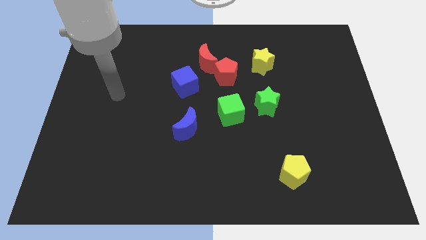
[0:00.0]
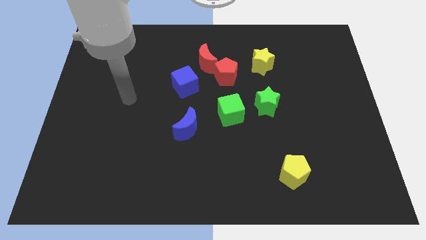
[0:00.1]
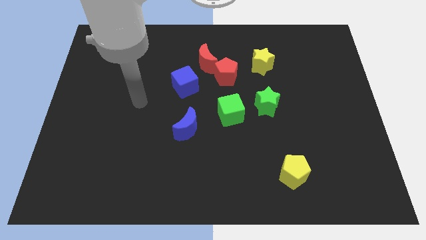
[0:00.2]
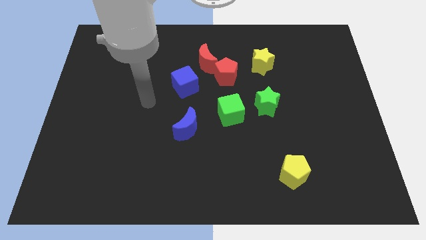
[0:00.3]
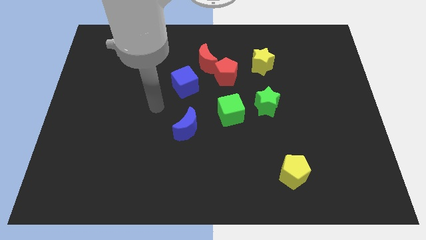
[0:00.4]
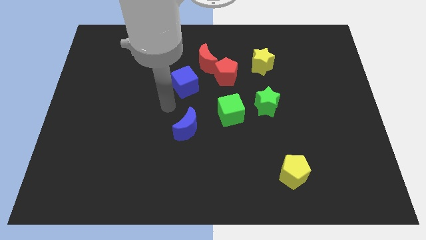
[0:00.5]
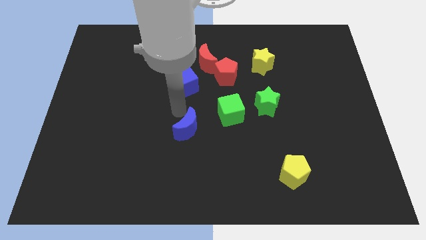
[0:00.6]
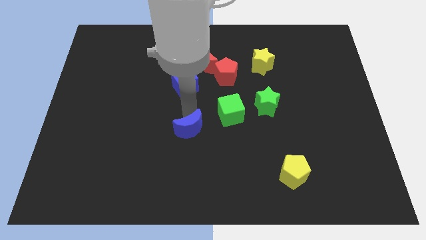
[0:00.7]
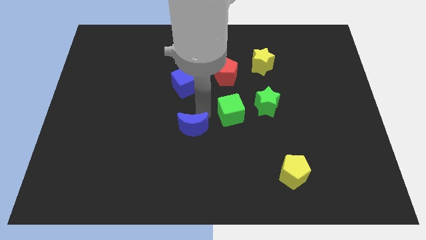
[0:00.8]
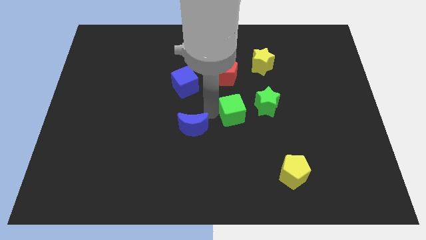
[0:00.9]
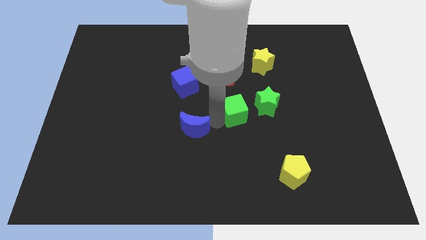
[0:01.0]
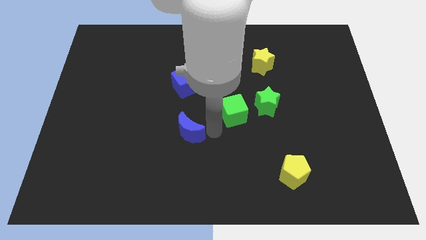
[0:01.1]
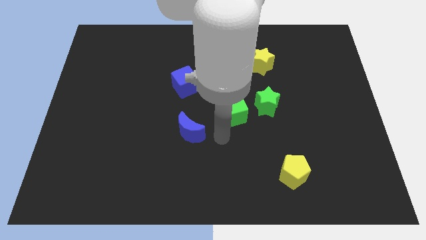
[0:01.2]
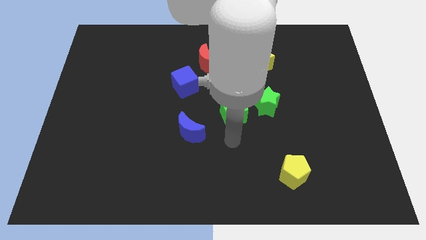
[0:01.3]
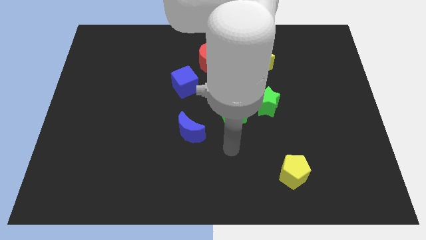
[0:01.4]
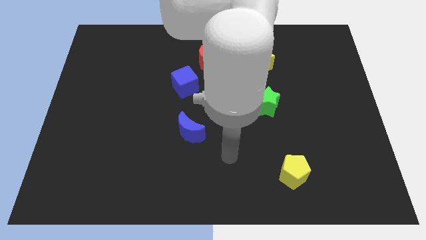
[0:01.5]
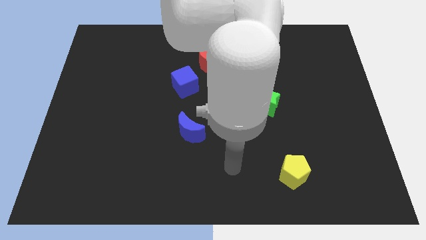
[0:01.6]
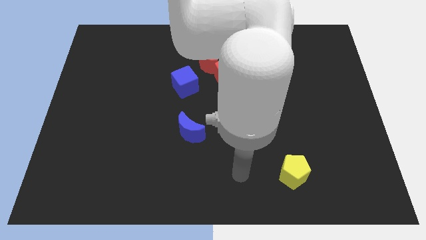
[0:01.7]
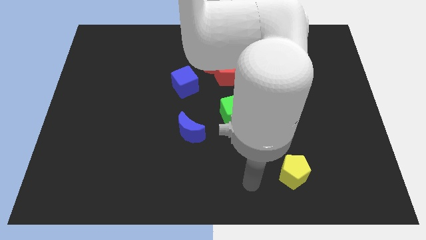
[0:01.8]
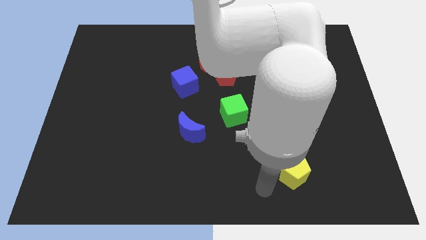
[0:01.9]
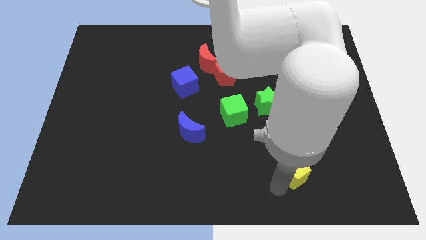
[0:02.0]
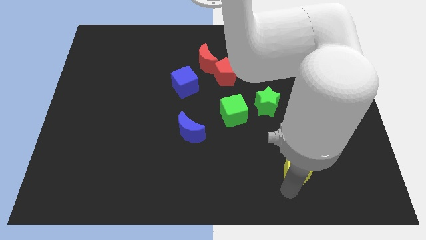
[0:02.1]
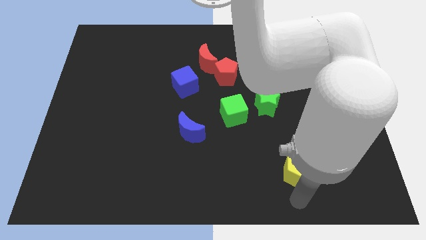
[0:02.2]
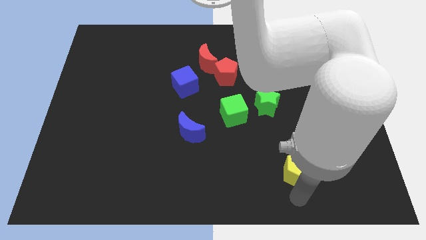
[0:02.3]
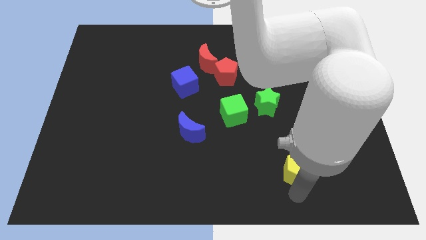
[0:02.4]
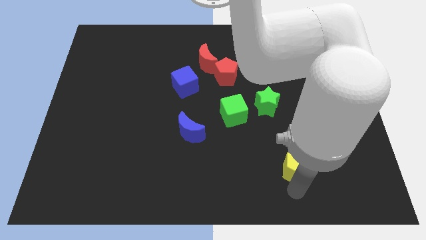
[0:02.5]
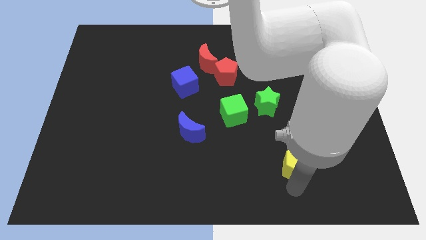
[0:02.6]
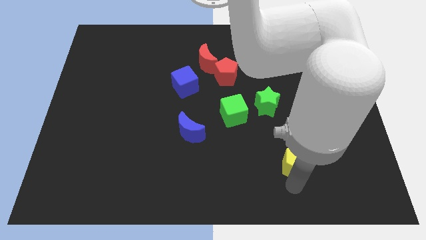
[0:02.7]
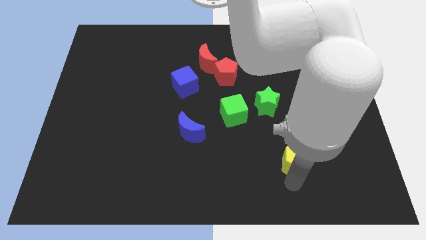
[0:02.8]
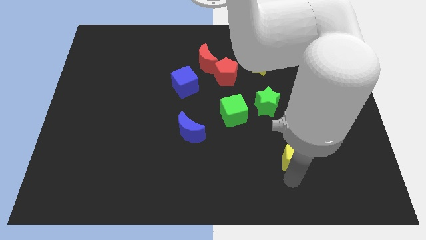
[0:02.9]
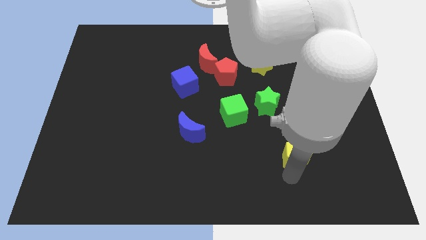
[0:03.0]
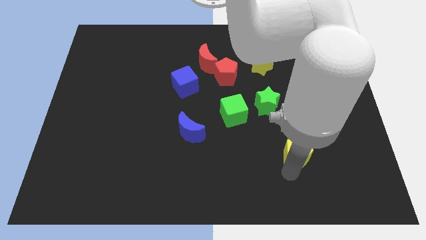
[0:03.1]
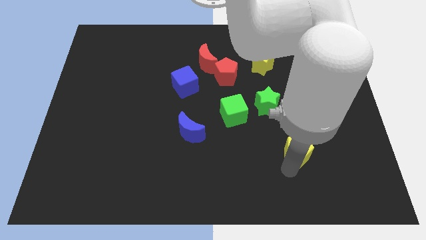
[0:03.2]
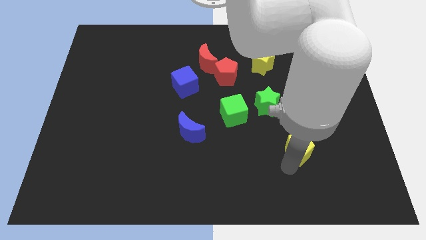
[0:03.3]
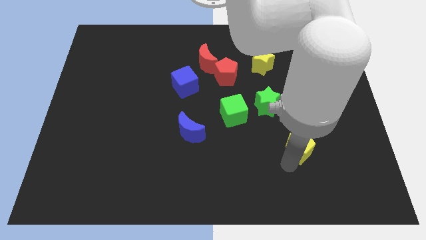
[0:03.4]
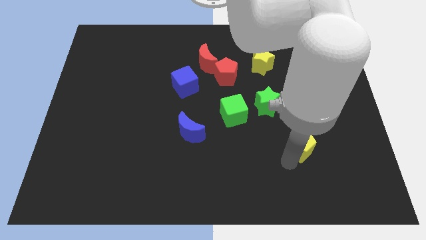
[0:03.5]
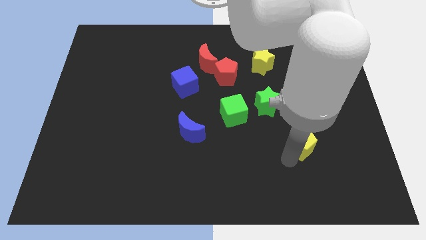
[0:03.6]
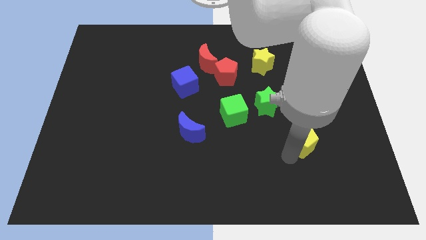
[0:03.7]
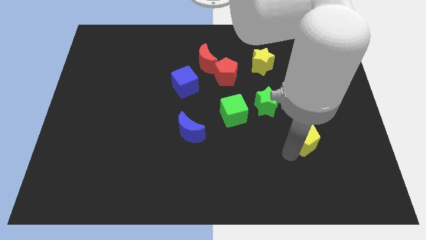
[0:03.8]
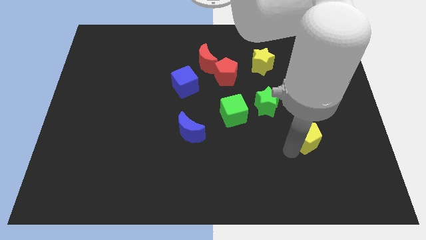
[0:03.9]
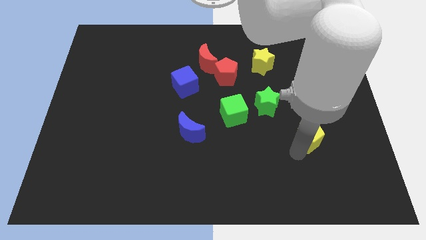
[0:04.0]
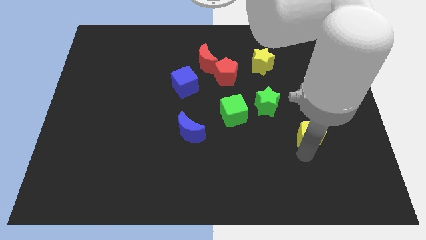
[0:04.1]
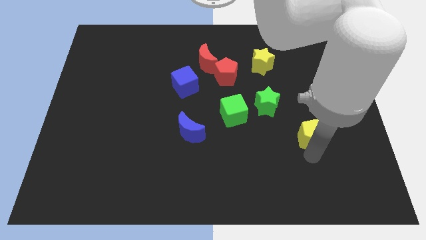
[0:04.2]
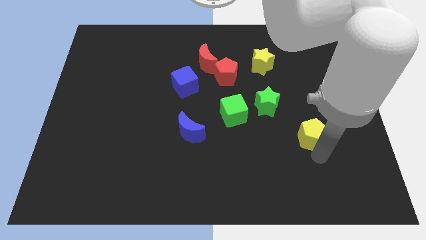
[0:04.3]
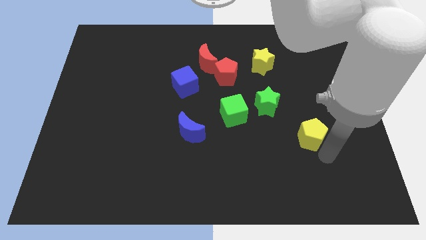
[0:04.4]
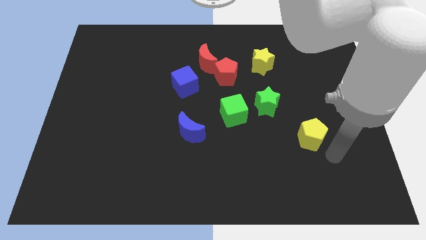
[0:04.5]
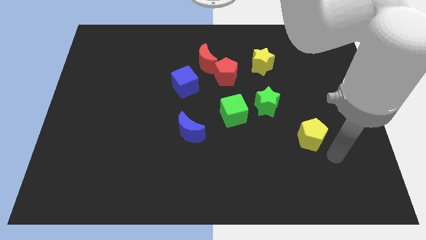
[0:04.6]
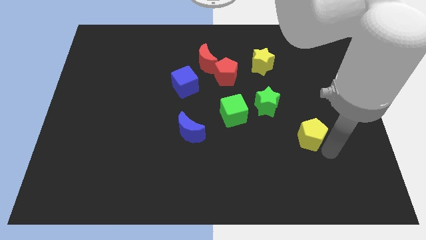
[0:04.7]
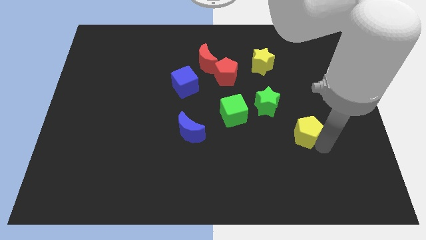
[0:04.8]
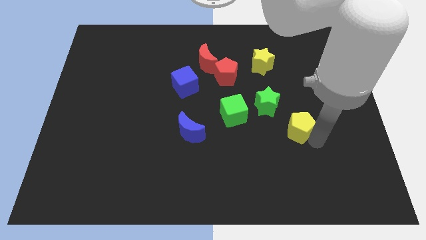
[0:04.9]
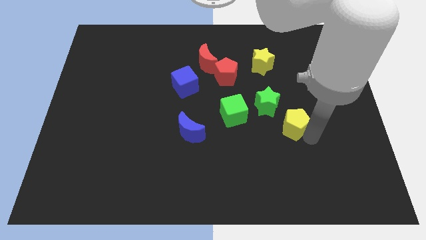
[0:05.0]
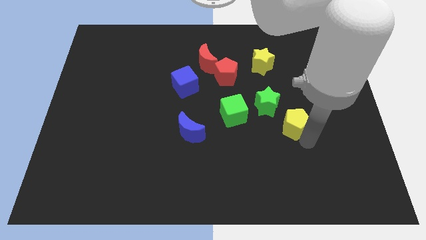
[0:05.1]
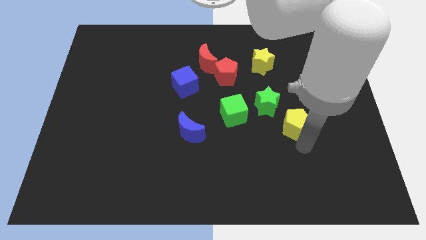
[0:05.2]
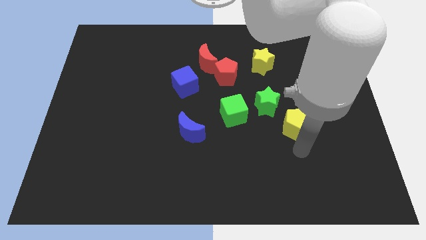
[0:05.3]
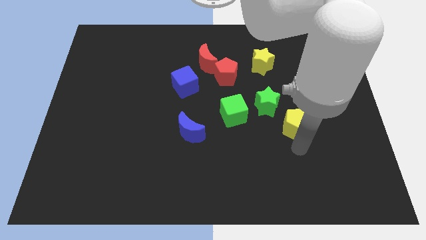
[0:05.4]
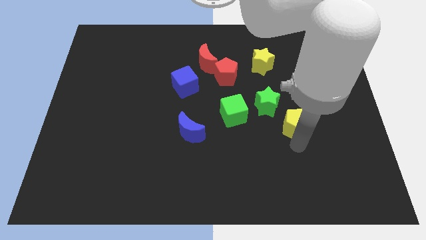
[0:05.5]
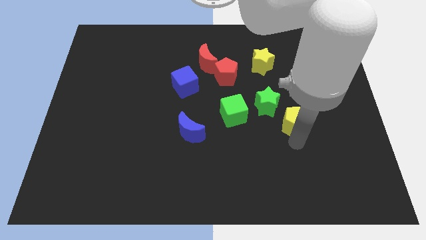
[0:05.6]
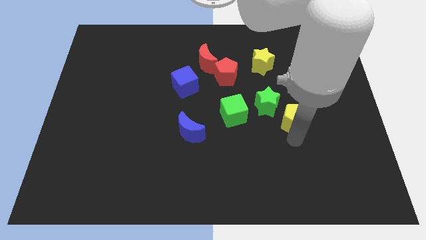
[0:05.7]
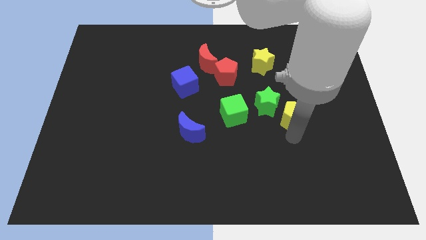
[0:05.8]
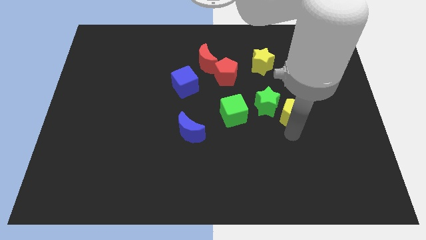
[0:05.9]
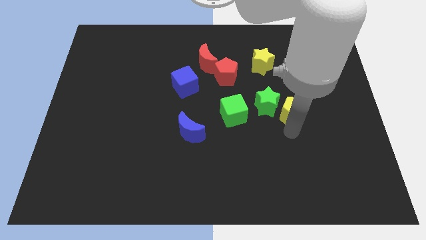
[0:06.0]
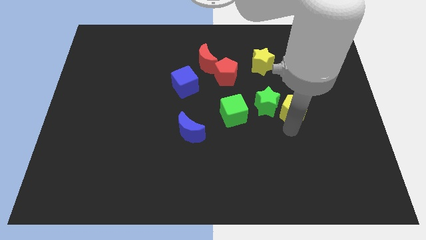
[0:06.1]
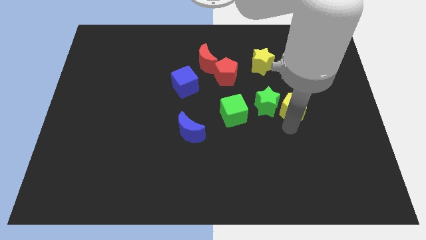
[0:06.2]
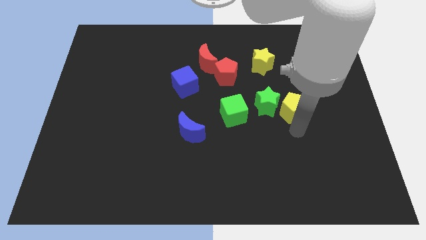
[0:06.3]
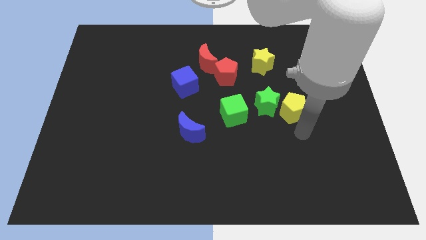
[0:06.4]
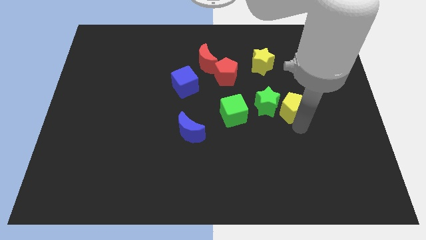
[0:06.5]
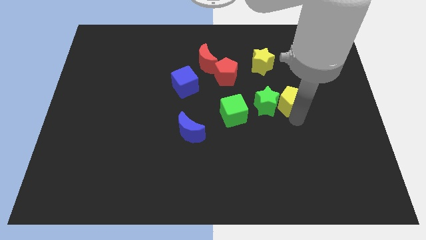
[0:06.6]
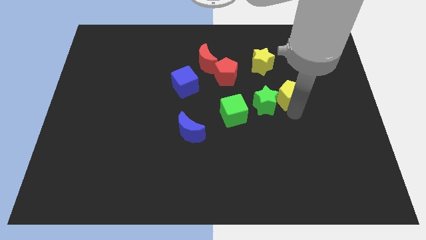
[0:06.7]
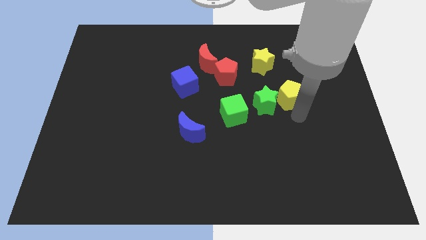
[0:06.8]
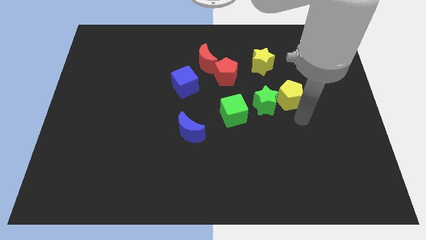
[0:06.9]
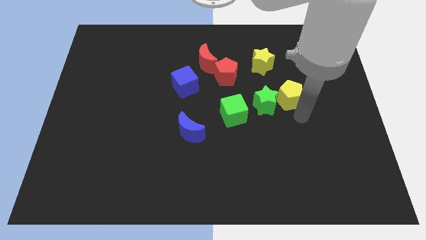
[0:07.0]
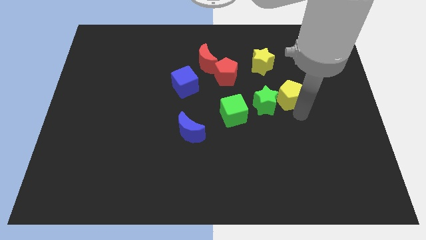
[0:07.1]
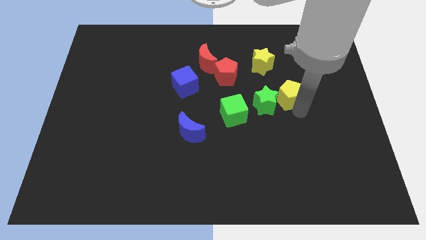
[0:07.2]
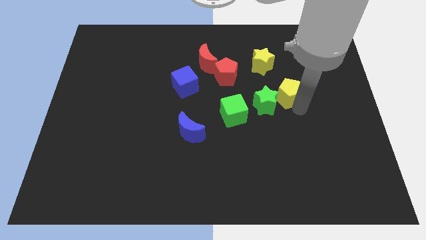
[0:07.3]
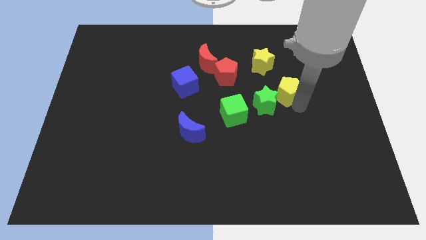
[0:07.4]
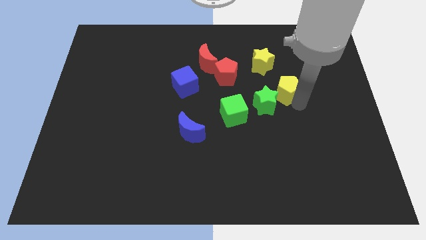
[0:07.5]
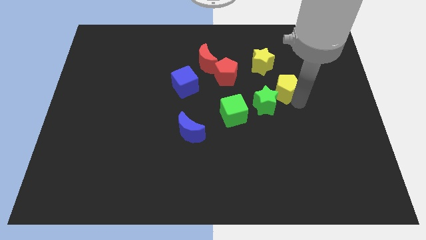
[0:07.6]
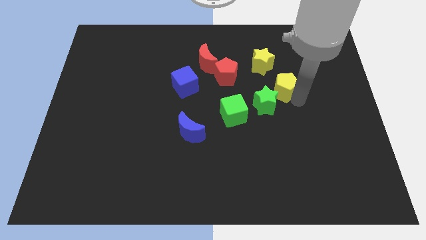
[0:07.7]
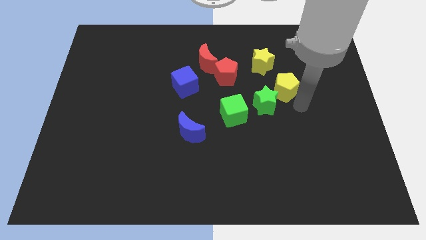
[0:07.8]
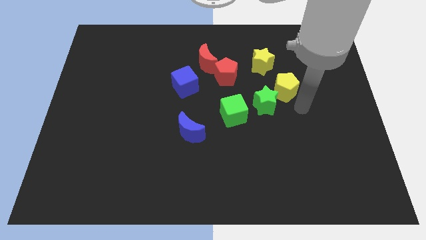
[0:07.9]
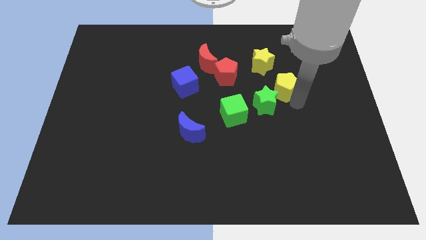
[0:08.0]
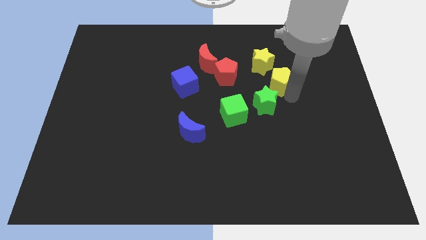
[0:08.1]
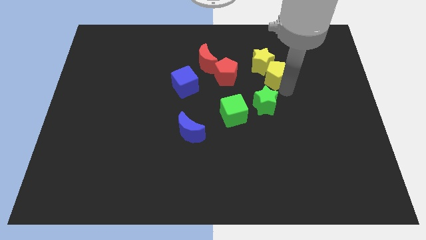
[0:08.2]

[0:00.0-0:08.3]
put the yellow pentagon next to the yellow star

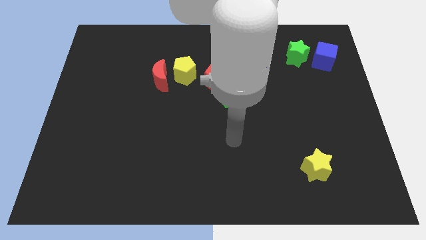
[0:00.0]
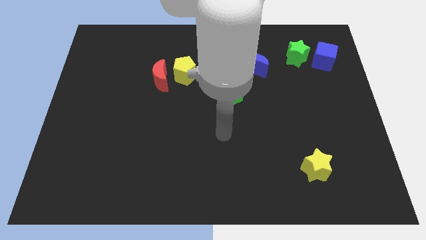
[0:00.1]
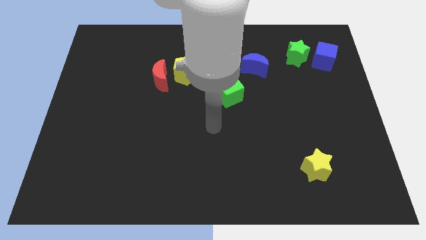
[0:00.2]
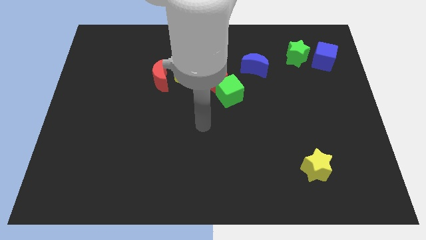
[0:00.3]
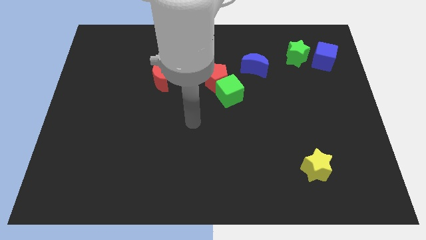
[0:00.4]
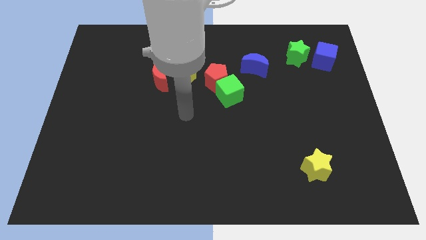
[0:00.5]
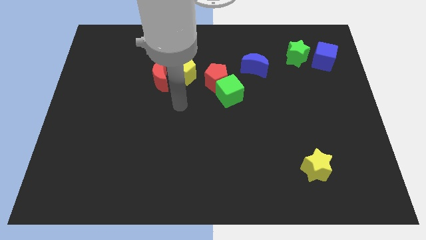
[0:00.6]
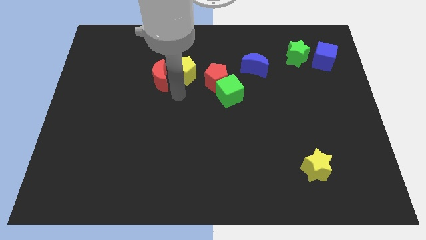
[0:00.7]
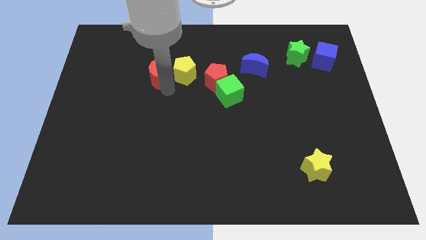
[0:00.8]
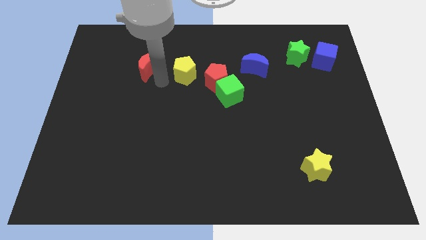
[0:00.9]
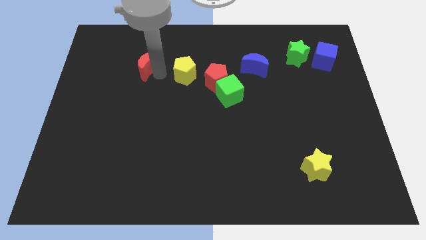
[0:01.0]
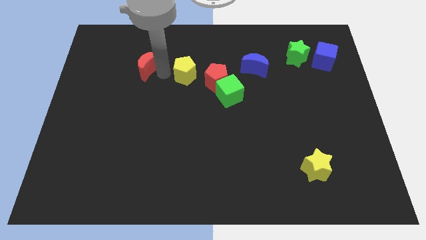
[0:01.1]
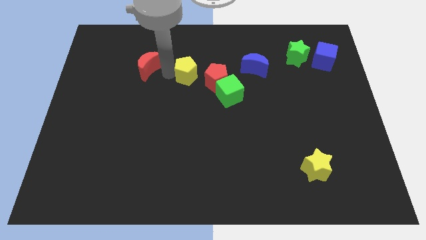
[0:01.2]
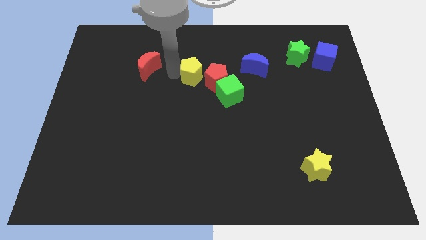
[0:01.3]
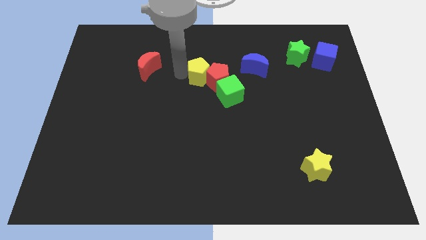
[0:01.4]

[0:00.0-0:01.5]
move the yellow pentagon towards the red pentagon
